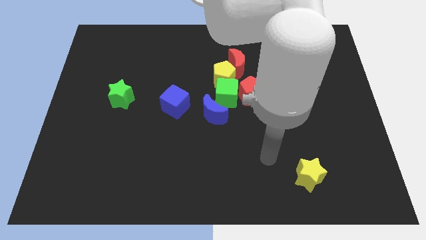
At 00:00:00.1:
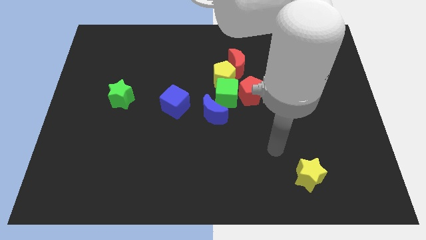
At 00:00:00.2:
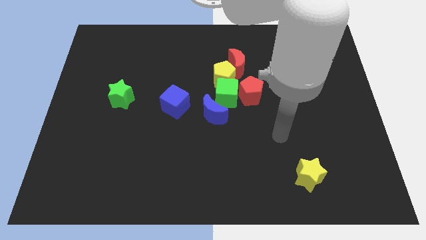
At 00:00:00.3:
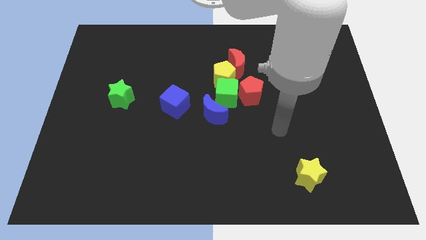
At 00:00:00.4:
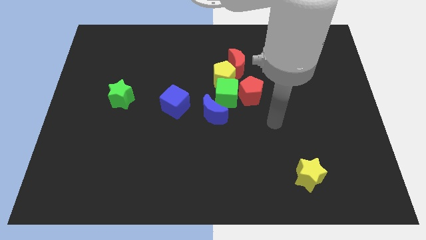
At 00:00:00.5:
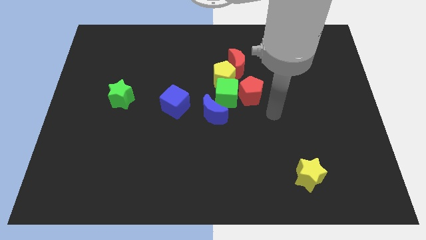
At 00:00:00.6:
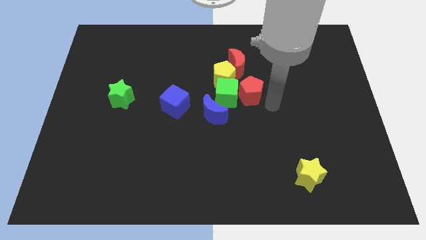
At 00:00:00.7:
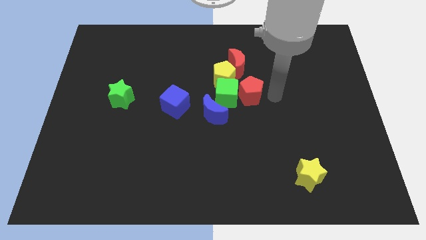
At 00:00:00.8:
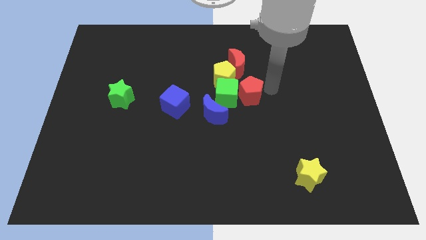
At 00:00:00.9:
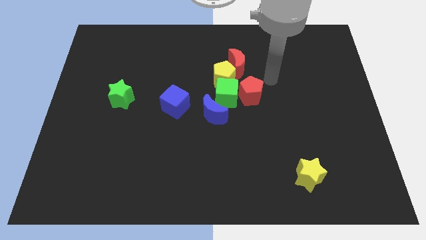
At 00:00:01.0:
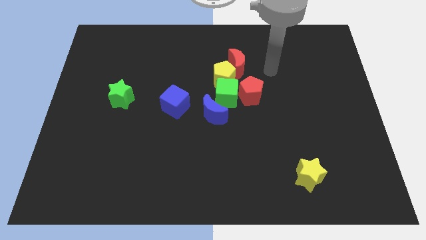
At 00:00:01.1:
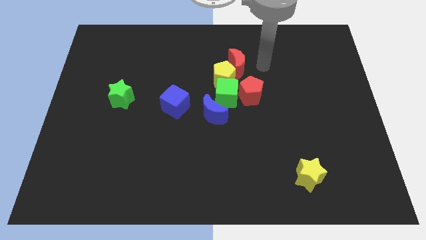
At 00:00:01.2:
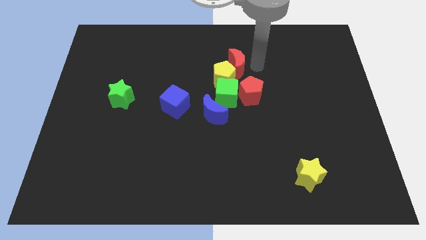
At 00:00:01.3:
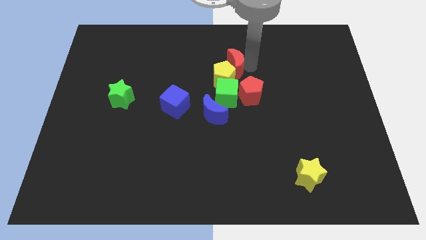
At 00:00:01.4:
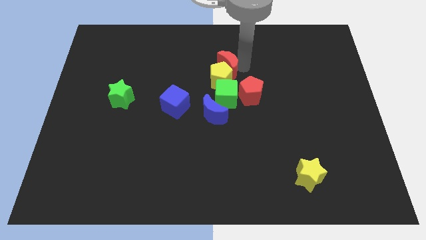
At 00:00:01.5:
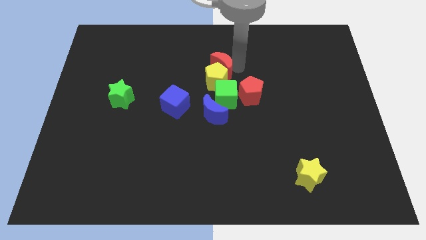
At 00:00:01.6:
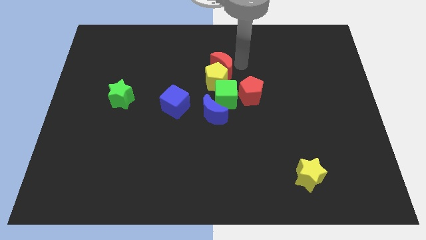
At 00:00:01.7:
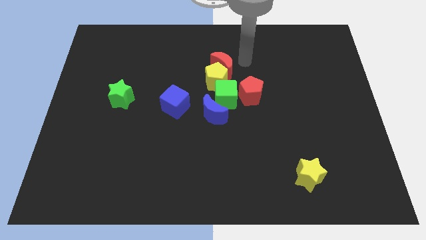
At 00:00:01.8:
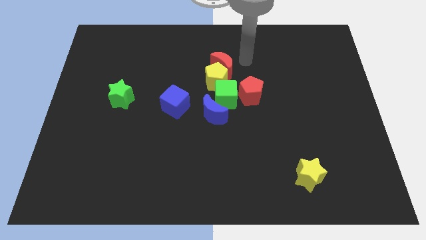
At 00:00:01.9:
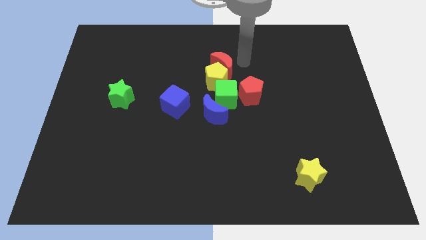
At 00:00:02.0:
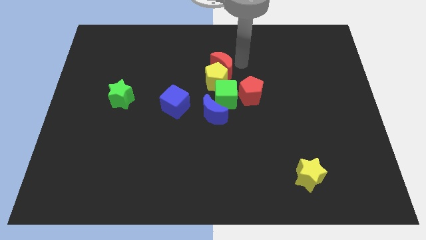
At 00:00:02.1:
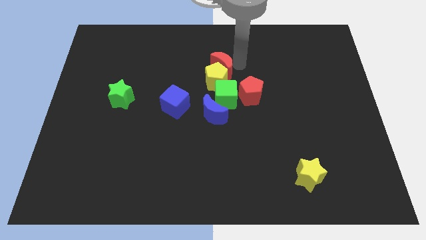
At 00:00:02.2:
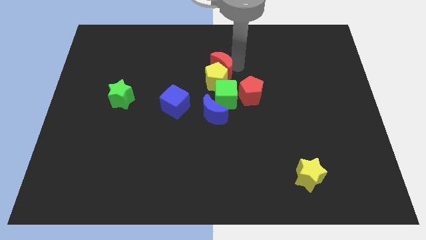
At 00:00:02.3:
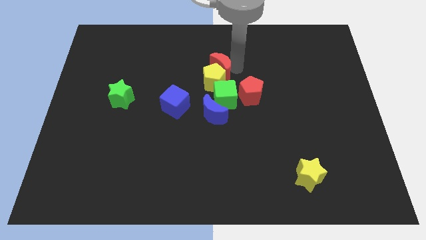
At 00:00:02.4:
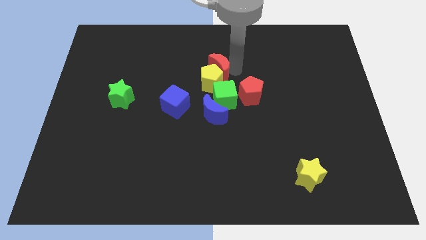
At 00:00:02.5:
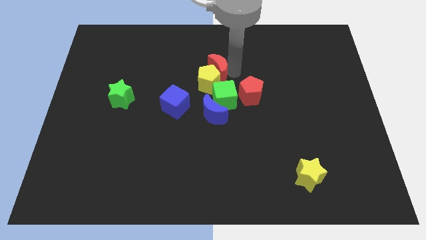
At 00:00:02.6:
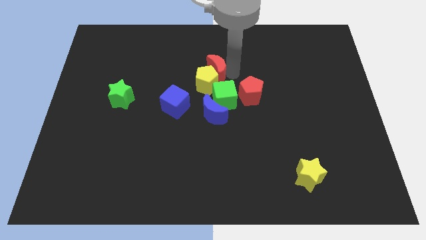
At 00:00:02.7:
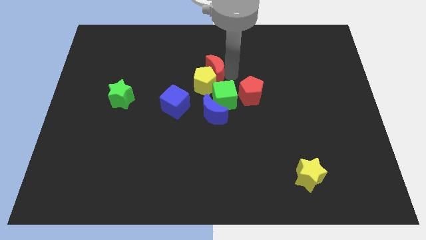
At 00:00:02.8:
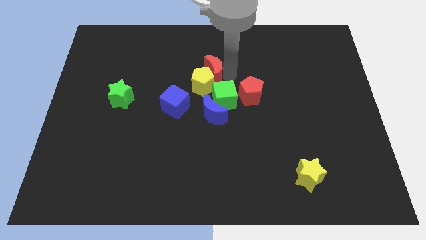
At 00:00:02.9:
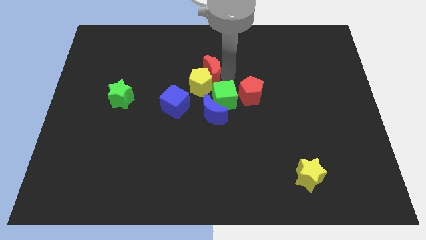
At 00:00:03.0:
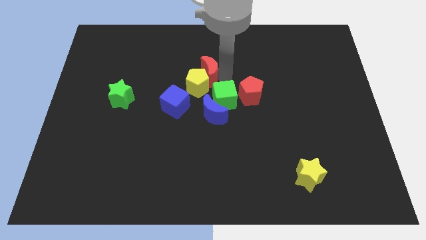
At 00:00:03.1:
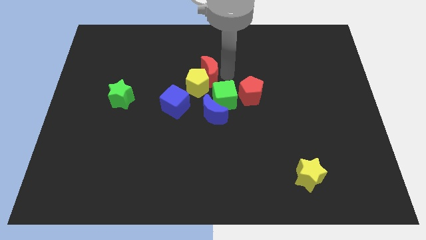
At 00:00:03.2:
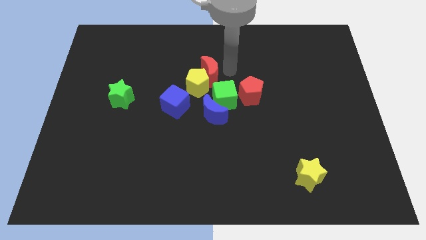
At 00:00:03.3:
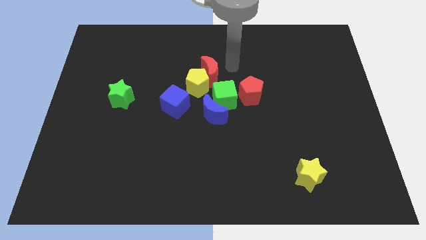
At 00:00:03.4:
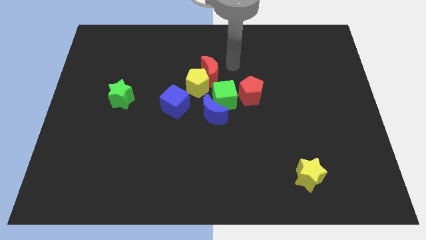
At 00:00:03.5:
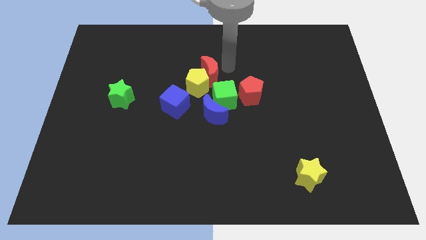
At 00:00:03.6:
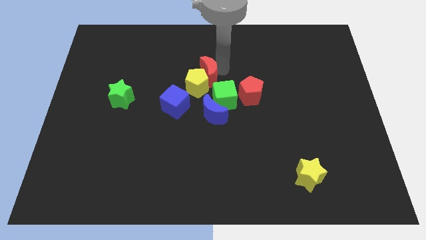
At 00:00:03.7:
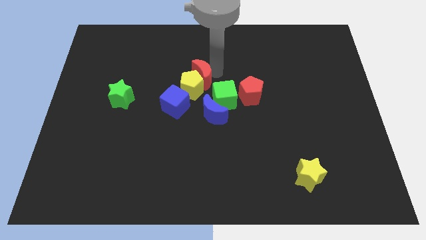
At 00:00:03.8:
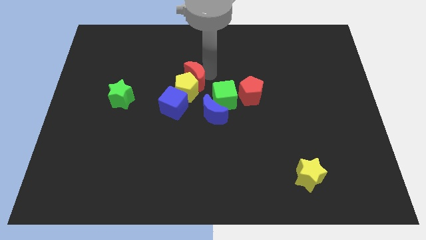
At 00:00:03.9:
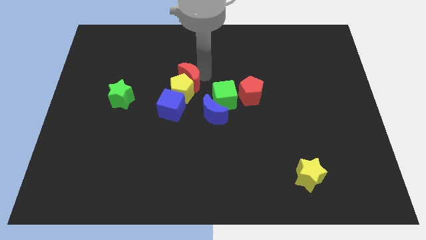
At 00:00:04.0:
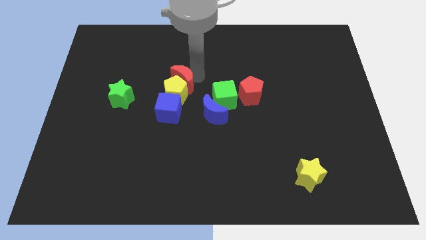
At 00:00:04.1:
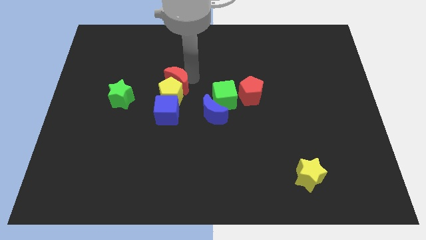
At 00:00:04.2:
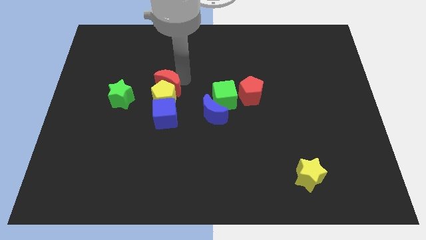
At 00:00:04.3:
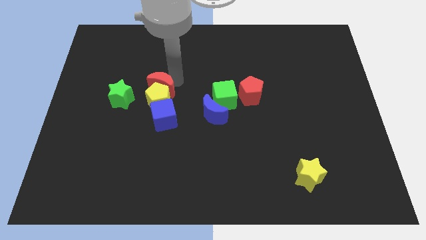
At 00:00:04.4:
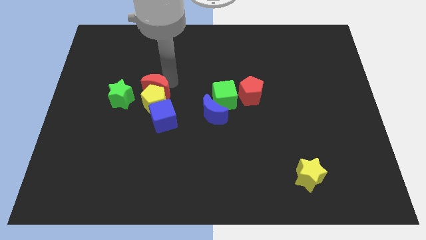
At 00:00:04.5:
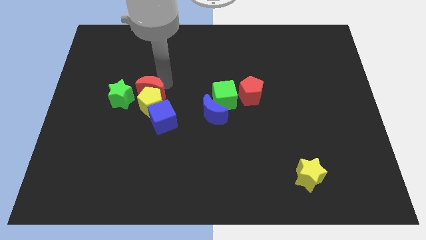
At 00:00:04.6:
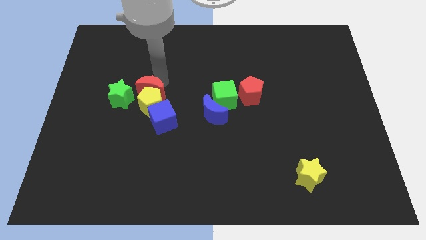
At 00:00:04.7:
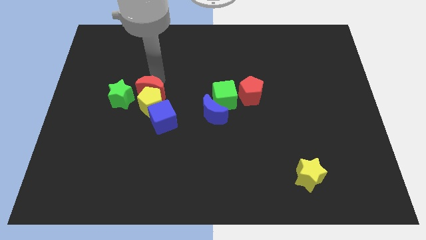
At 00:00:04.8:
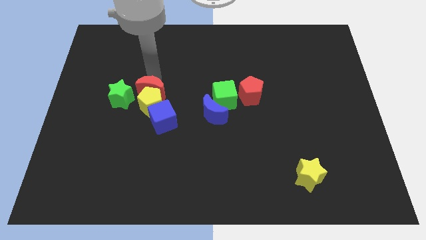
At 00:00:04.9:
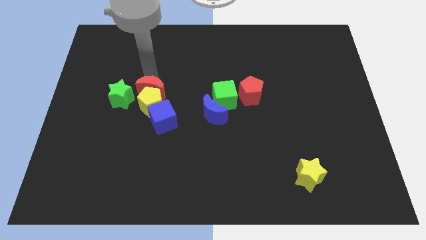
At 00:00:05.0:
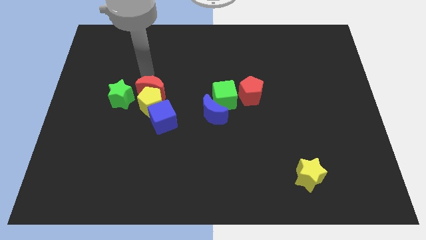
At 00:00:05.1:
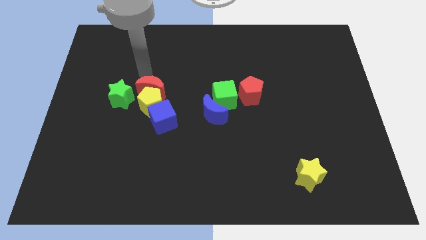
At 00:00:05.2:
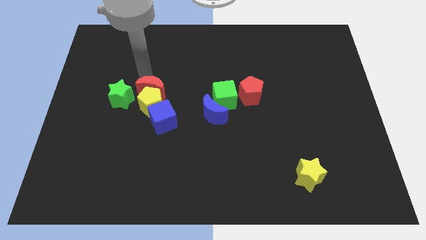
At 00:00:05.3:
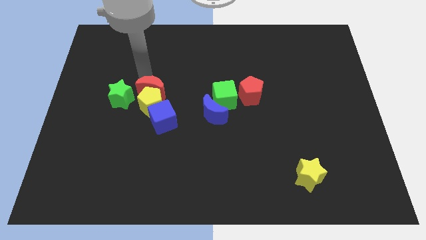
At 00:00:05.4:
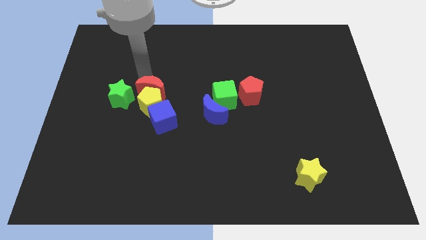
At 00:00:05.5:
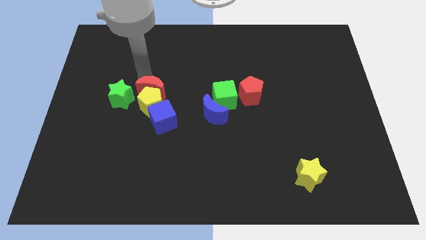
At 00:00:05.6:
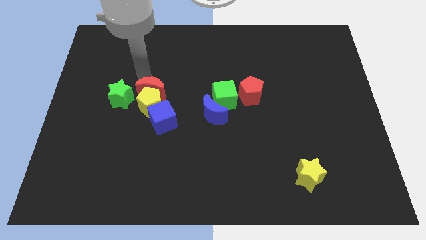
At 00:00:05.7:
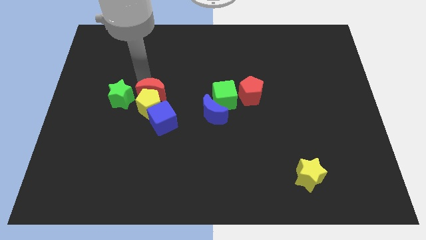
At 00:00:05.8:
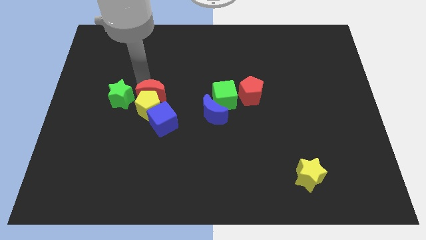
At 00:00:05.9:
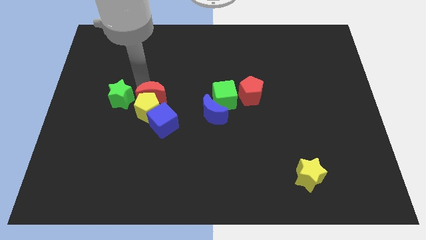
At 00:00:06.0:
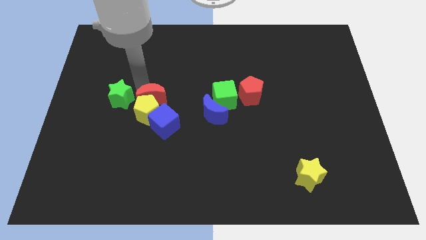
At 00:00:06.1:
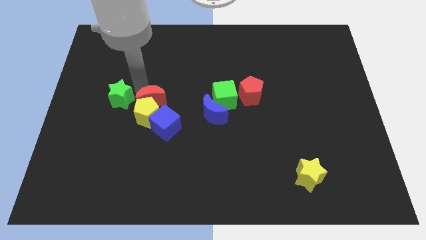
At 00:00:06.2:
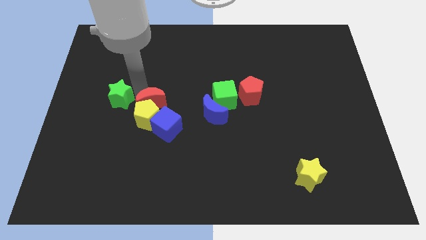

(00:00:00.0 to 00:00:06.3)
move the red moon left of the blue moon
